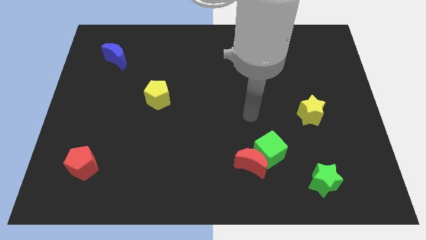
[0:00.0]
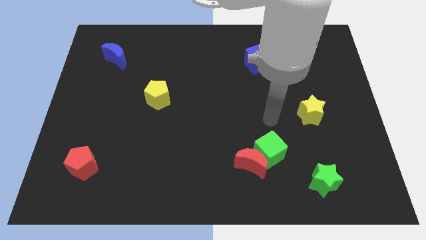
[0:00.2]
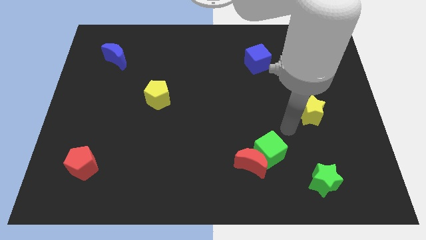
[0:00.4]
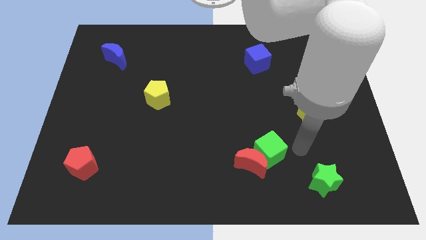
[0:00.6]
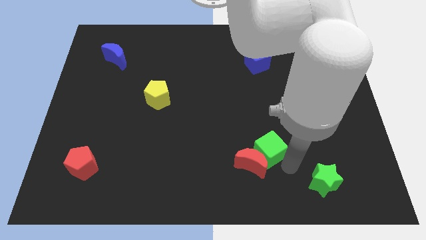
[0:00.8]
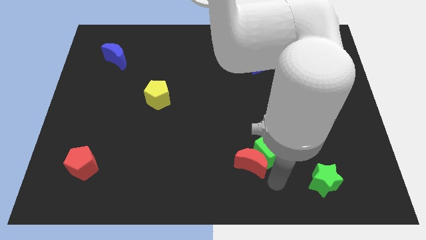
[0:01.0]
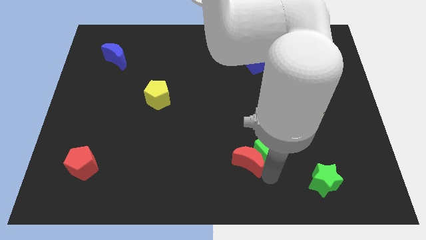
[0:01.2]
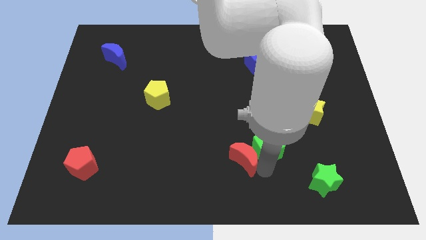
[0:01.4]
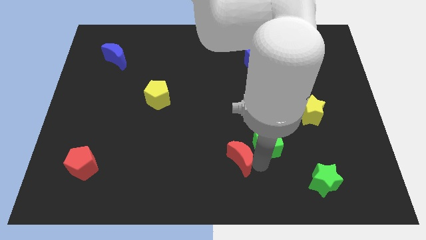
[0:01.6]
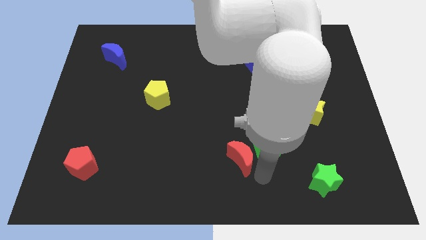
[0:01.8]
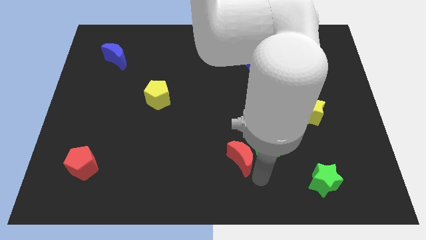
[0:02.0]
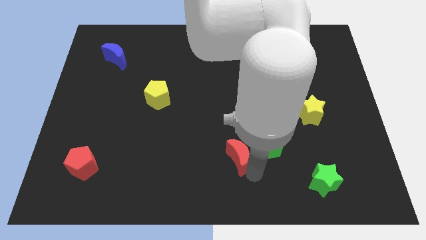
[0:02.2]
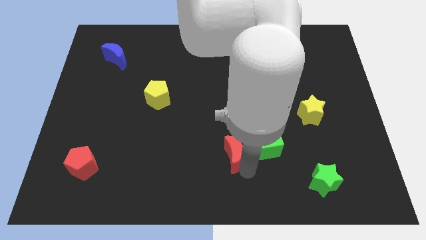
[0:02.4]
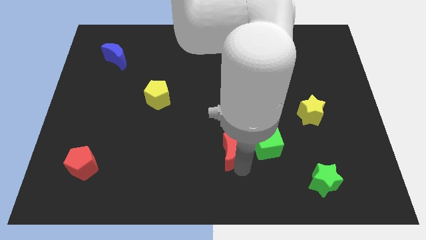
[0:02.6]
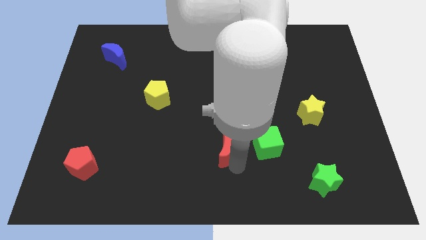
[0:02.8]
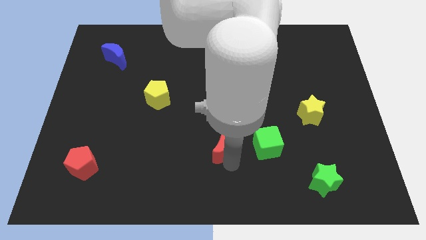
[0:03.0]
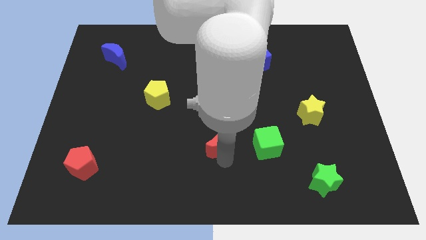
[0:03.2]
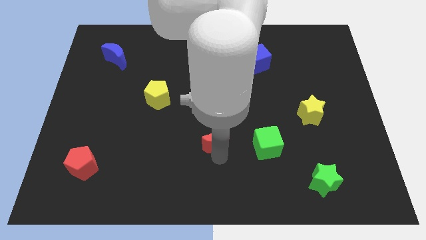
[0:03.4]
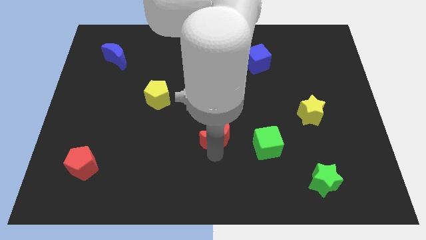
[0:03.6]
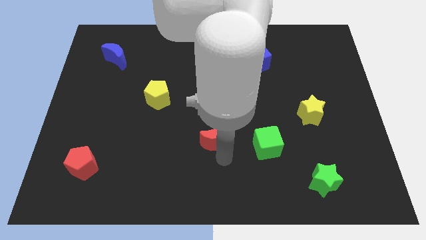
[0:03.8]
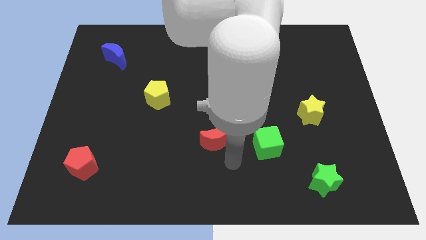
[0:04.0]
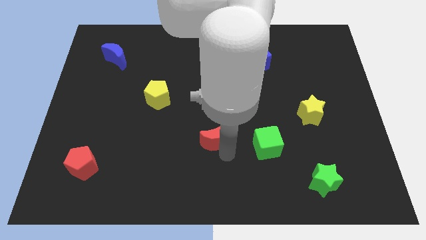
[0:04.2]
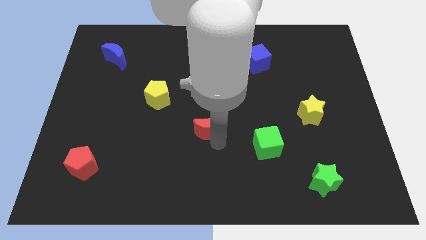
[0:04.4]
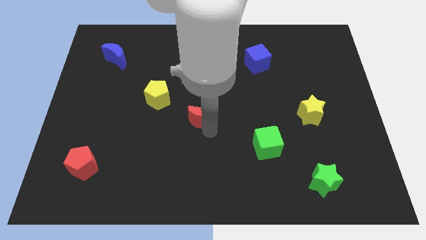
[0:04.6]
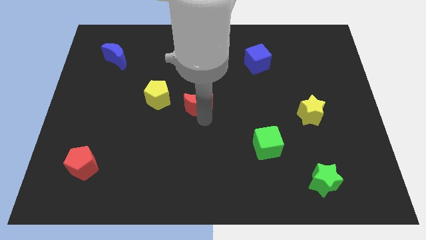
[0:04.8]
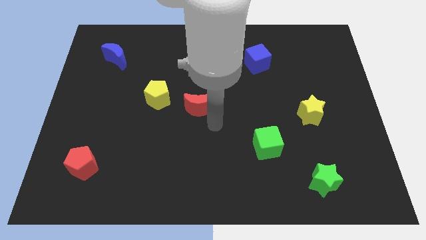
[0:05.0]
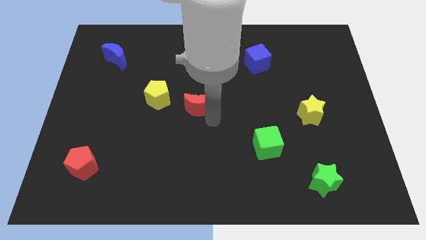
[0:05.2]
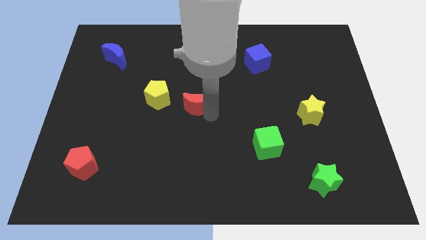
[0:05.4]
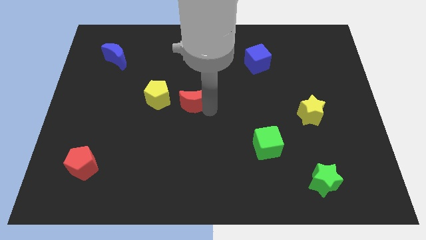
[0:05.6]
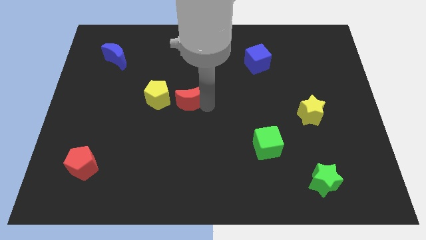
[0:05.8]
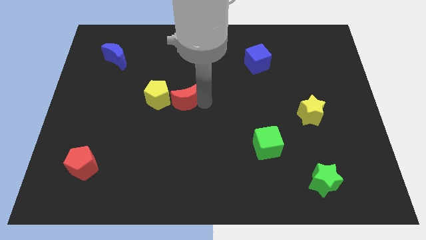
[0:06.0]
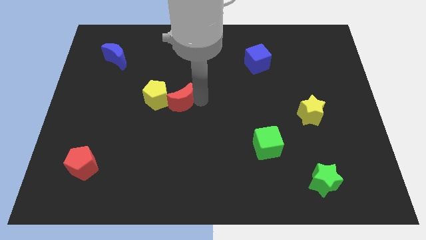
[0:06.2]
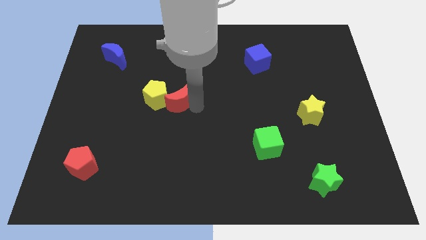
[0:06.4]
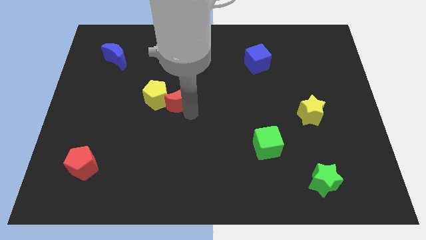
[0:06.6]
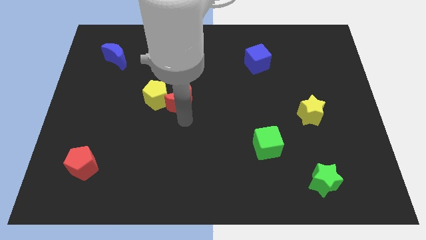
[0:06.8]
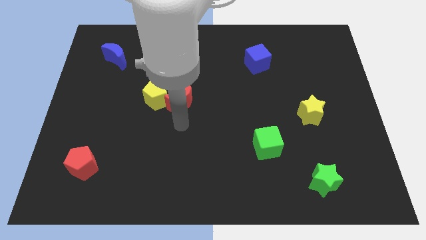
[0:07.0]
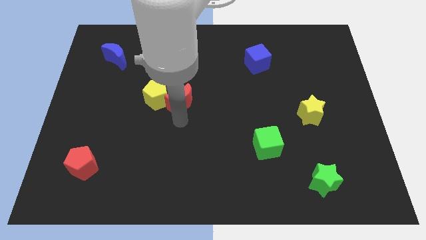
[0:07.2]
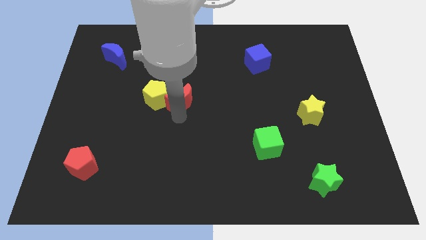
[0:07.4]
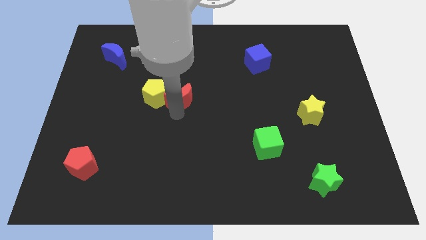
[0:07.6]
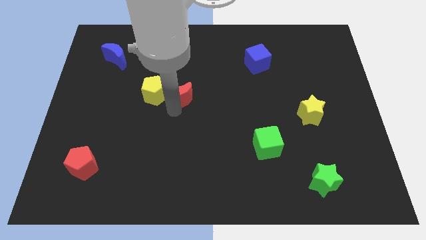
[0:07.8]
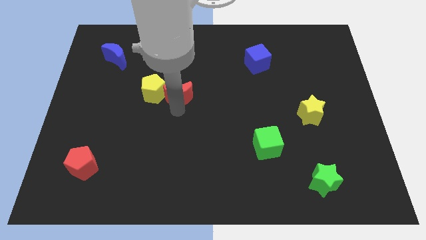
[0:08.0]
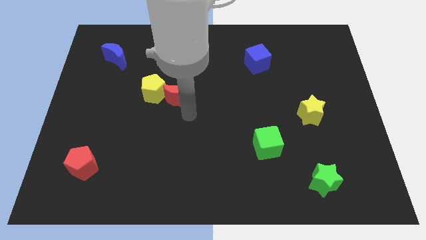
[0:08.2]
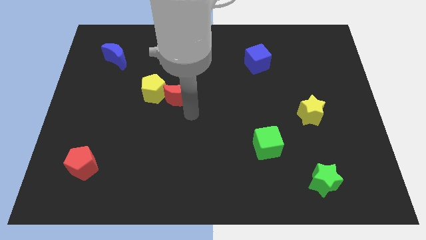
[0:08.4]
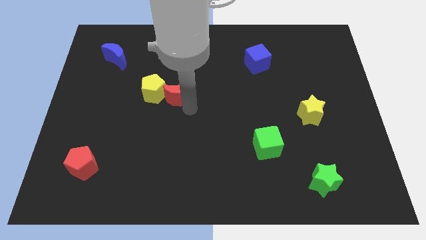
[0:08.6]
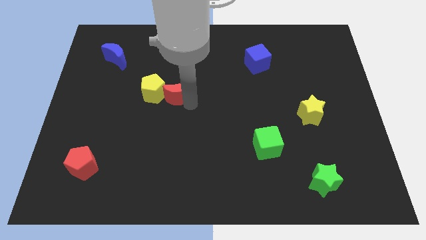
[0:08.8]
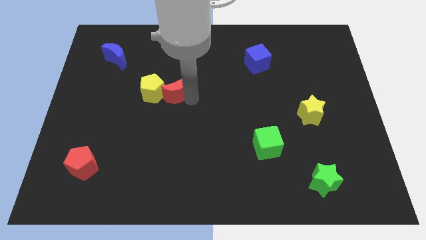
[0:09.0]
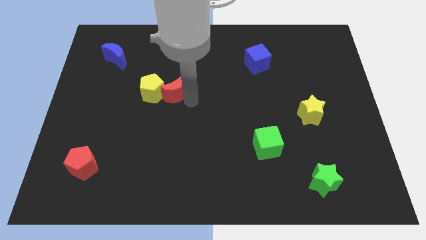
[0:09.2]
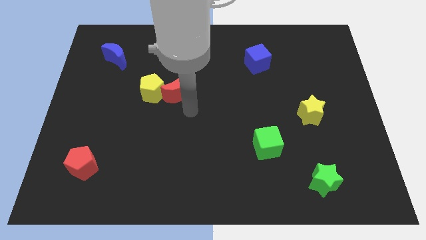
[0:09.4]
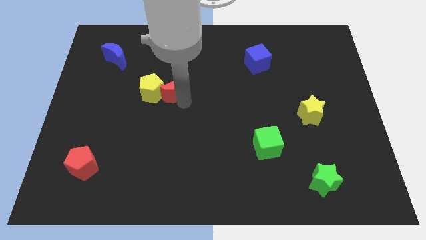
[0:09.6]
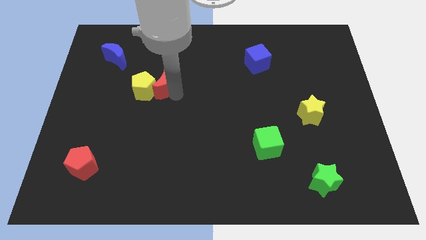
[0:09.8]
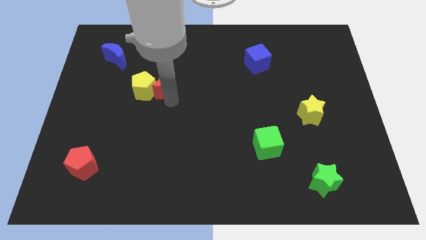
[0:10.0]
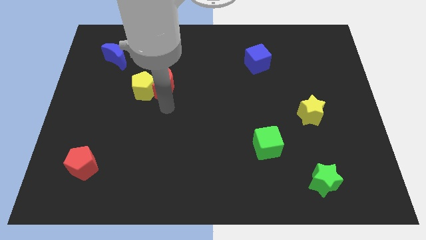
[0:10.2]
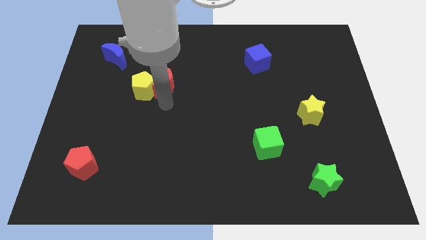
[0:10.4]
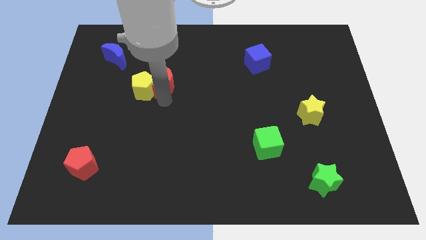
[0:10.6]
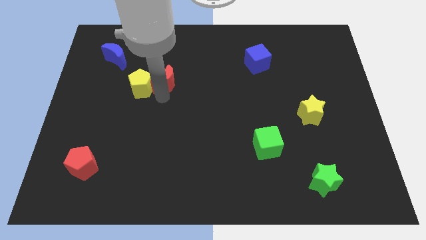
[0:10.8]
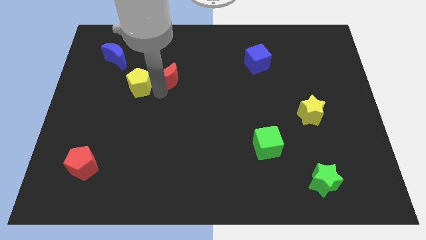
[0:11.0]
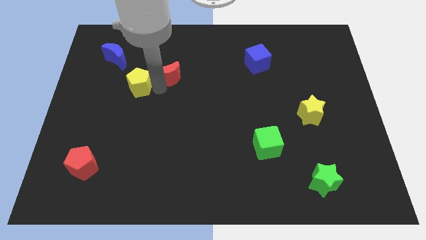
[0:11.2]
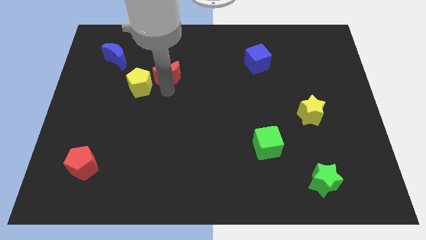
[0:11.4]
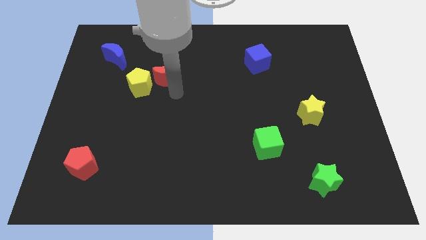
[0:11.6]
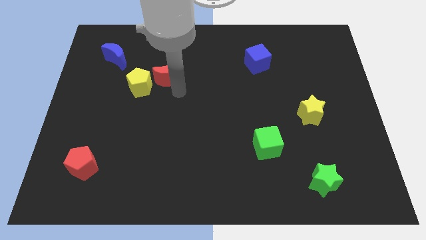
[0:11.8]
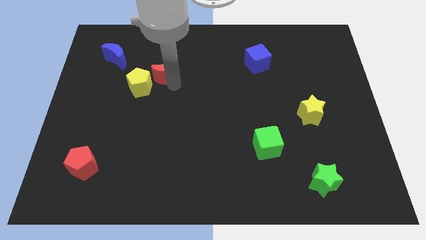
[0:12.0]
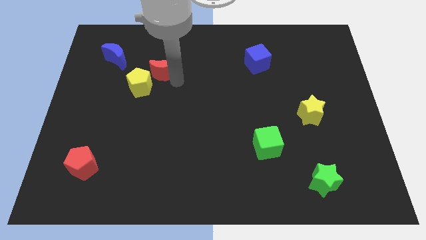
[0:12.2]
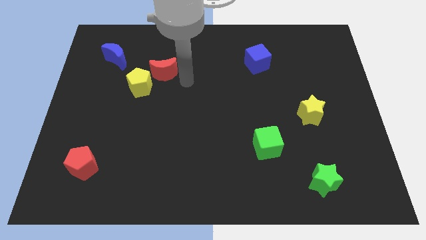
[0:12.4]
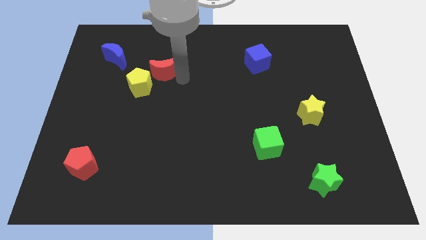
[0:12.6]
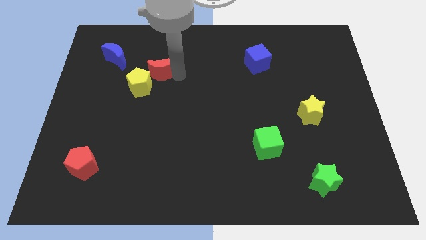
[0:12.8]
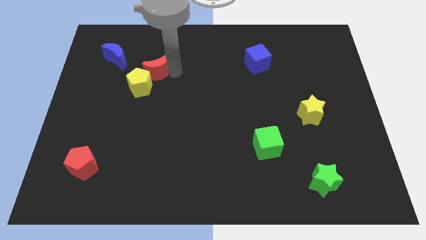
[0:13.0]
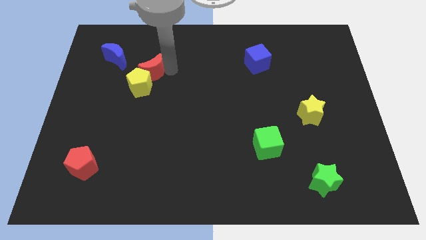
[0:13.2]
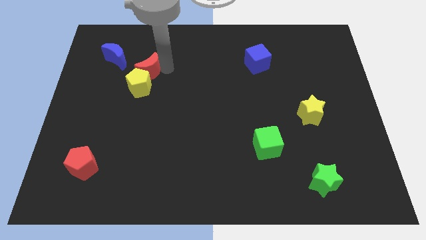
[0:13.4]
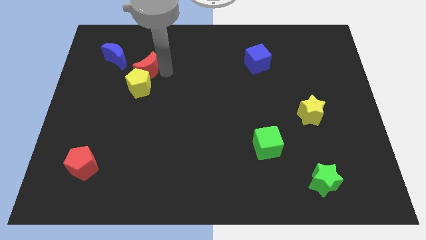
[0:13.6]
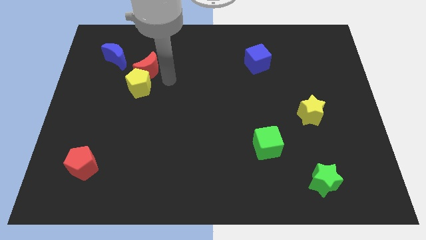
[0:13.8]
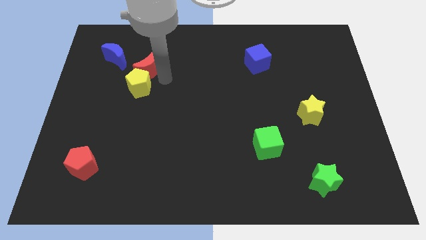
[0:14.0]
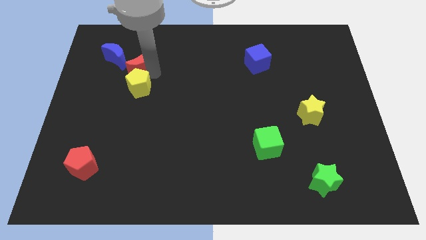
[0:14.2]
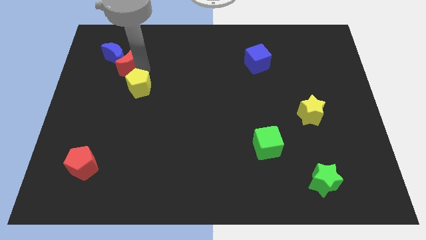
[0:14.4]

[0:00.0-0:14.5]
push the red moon next to the blue moon
